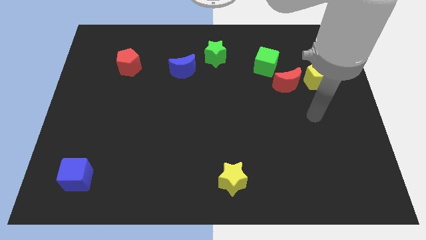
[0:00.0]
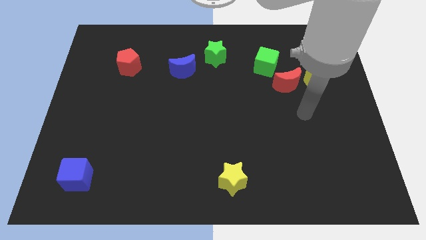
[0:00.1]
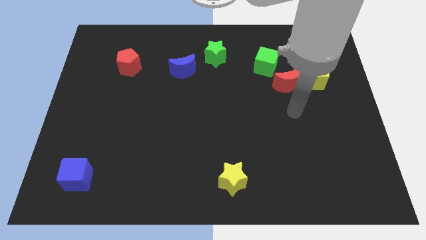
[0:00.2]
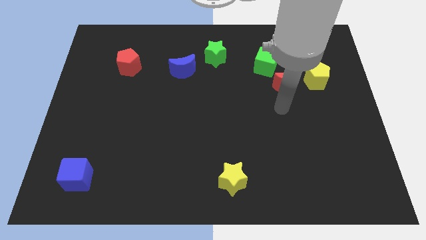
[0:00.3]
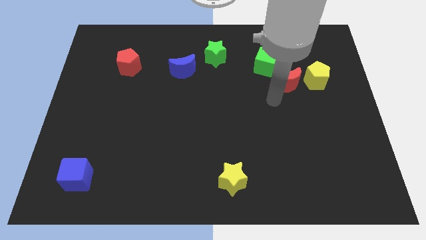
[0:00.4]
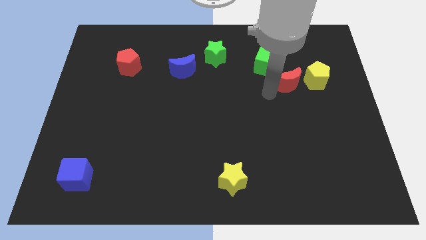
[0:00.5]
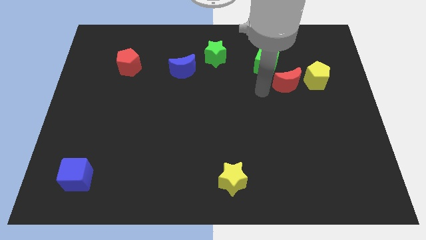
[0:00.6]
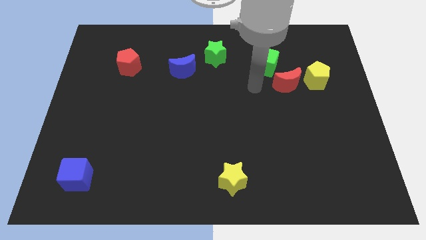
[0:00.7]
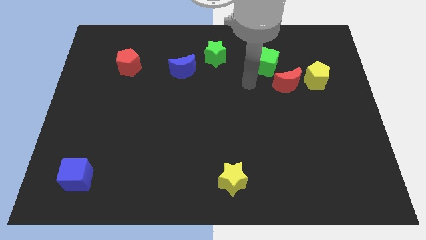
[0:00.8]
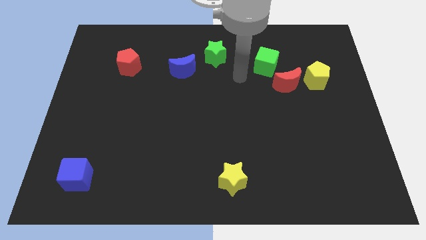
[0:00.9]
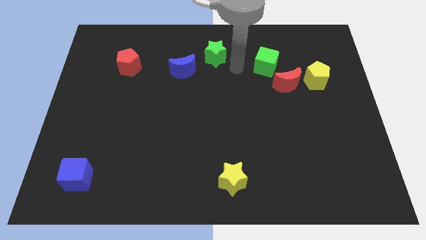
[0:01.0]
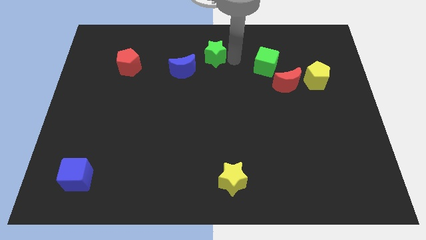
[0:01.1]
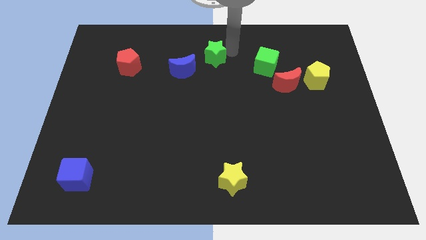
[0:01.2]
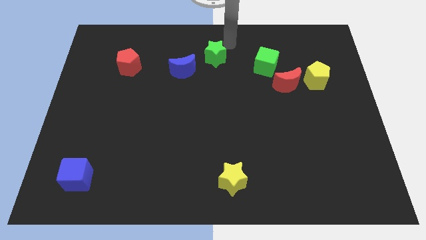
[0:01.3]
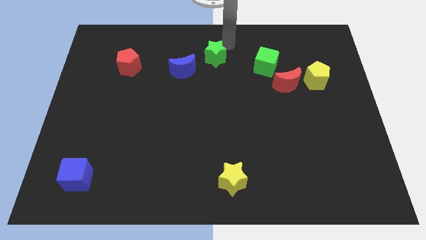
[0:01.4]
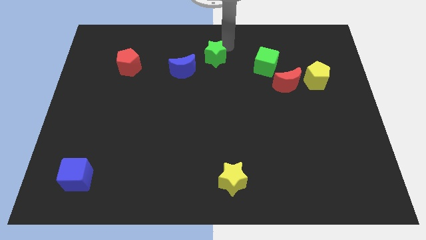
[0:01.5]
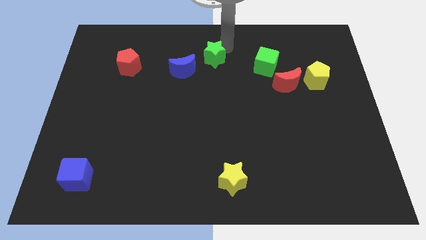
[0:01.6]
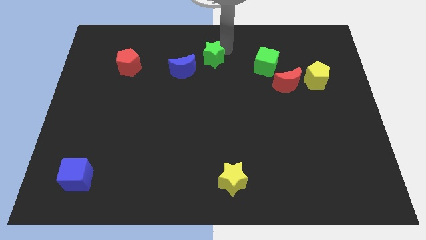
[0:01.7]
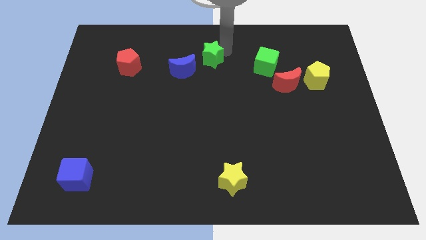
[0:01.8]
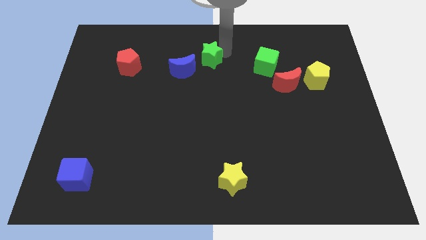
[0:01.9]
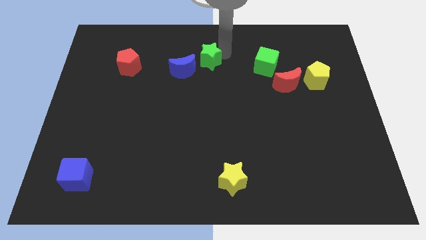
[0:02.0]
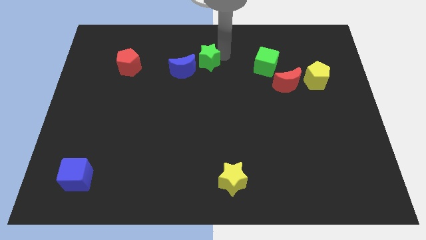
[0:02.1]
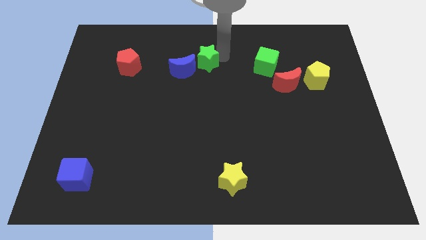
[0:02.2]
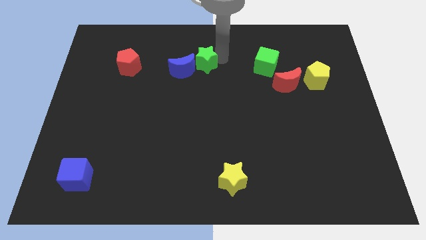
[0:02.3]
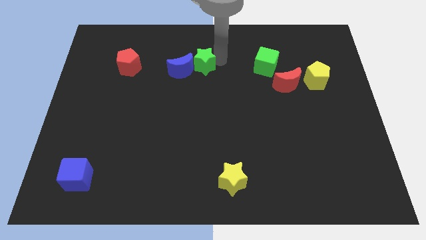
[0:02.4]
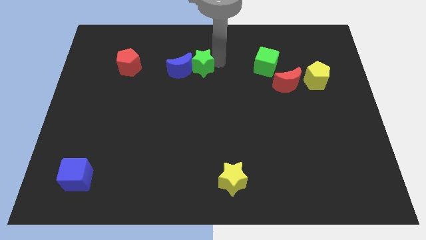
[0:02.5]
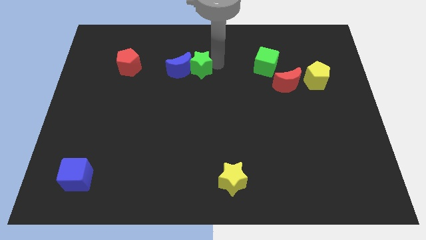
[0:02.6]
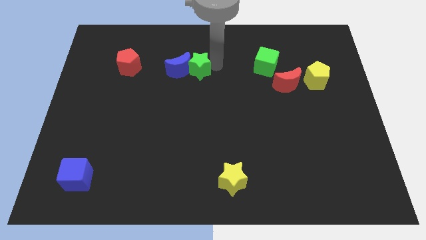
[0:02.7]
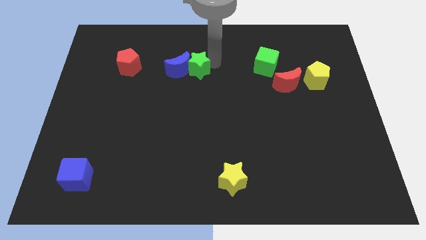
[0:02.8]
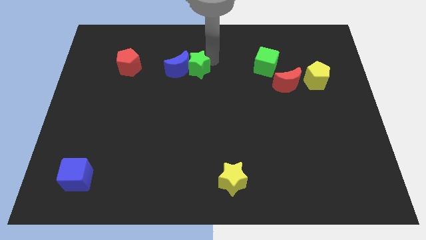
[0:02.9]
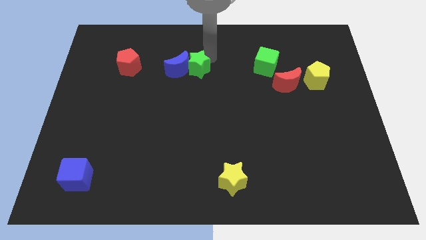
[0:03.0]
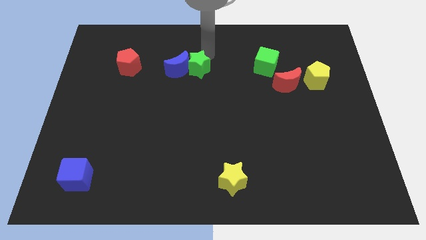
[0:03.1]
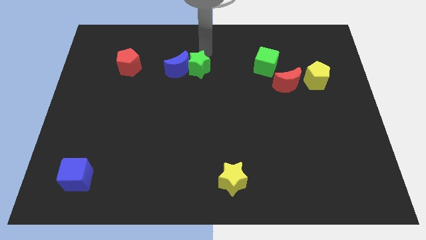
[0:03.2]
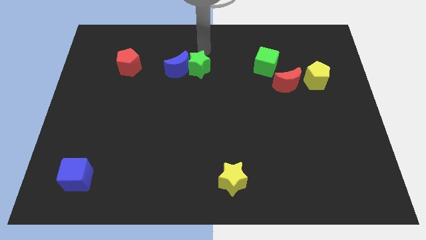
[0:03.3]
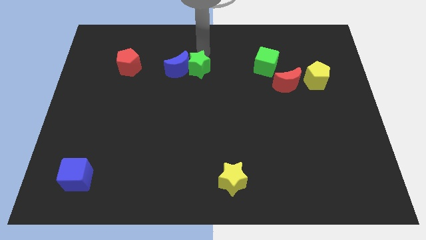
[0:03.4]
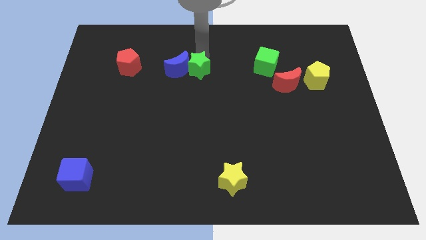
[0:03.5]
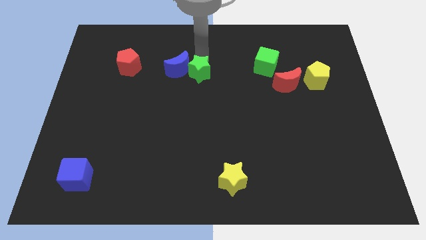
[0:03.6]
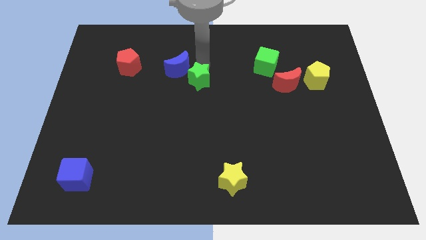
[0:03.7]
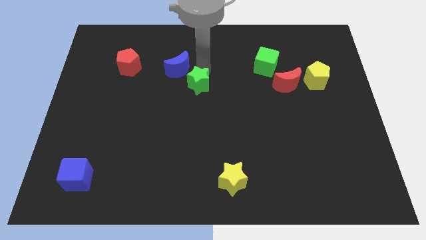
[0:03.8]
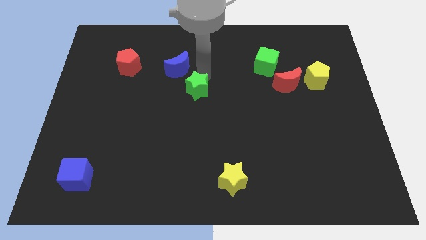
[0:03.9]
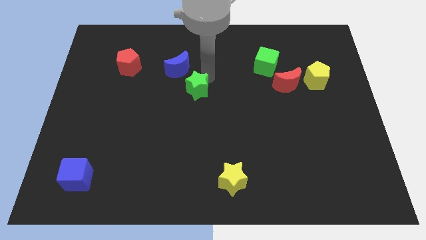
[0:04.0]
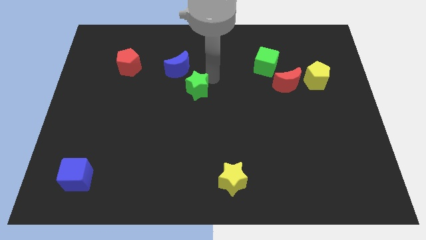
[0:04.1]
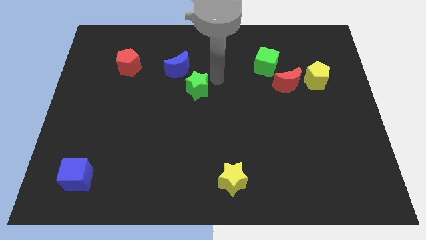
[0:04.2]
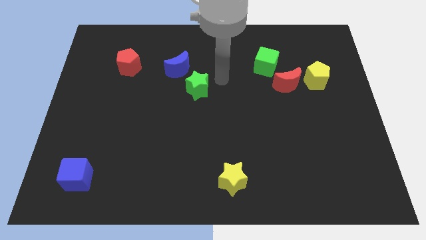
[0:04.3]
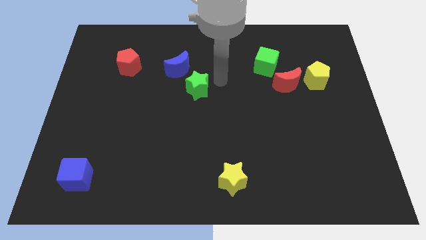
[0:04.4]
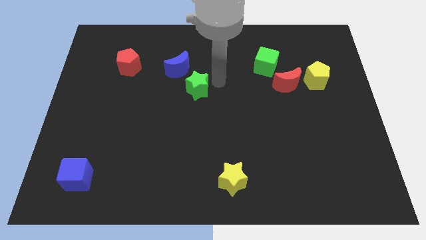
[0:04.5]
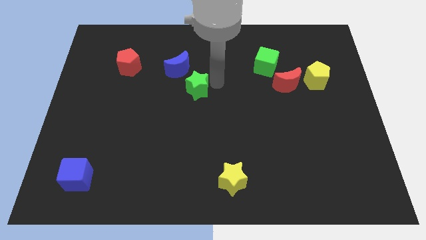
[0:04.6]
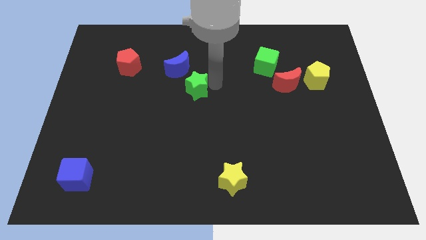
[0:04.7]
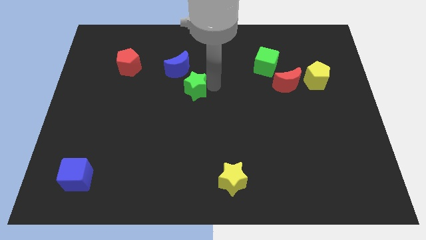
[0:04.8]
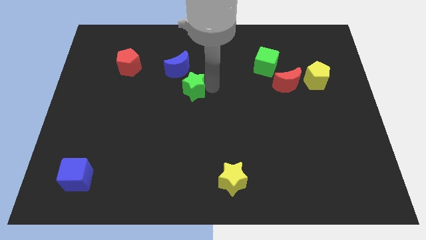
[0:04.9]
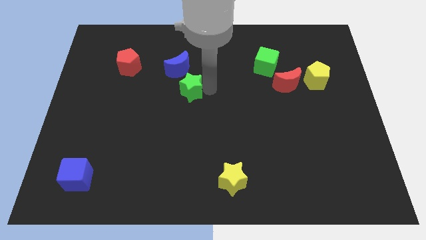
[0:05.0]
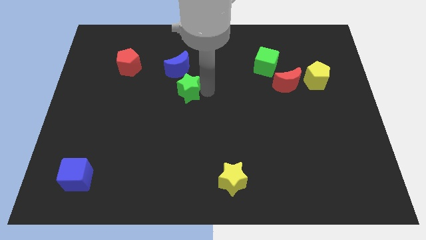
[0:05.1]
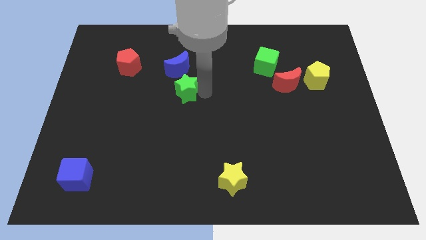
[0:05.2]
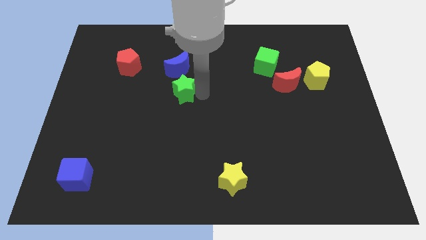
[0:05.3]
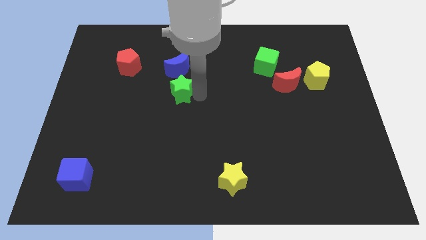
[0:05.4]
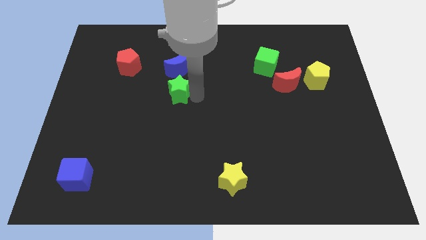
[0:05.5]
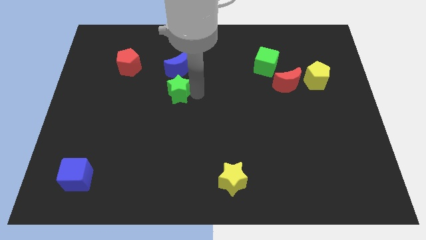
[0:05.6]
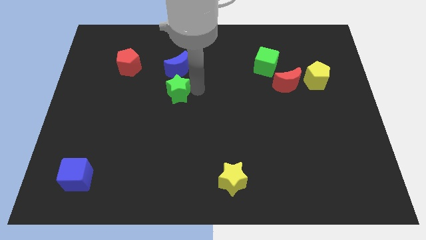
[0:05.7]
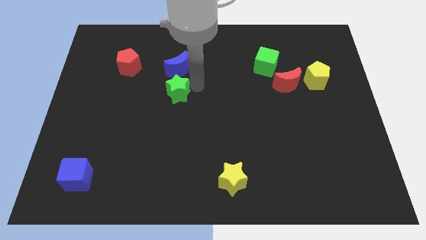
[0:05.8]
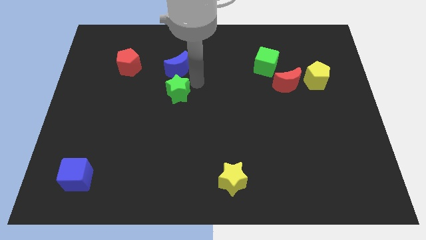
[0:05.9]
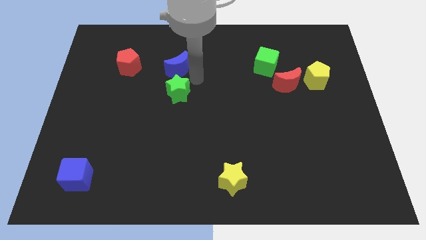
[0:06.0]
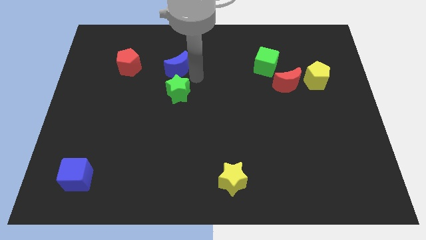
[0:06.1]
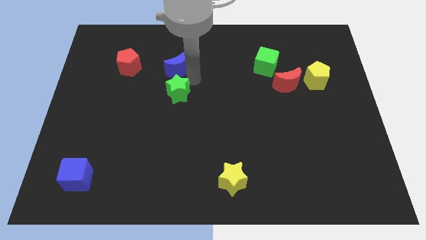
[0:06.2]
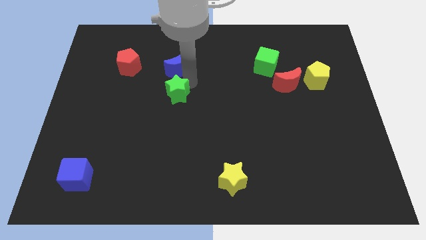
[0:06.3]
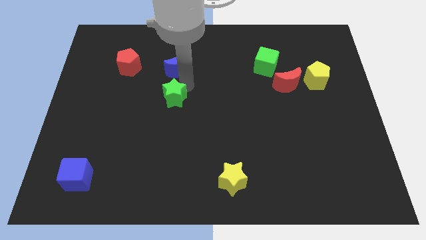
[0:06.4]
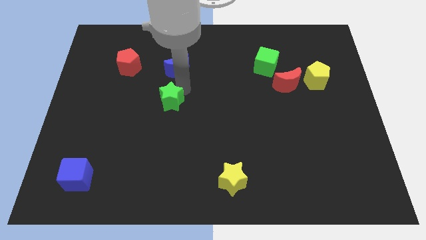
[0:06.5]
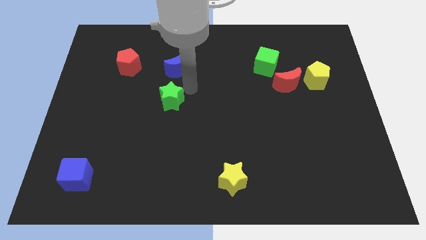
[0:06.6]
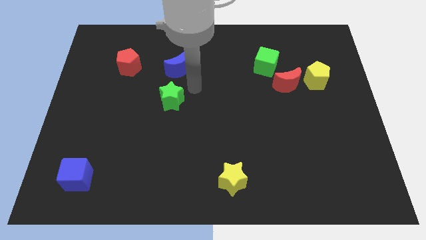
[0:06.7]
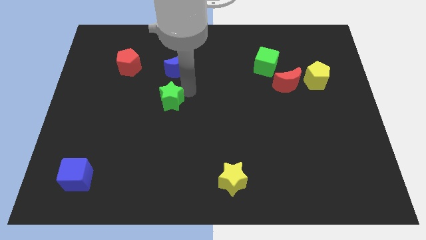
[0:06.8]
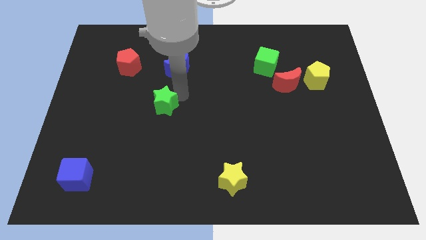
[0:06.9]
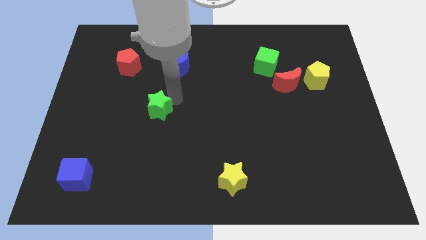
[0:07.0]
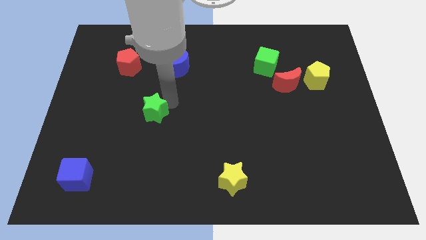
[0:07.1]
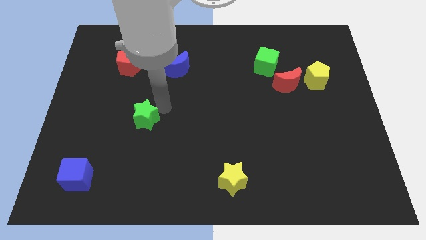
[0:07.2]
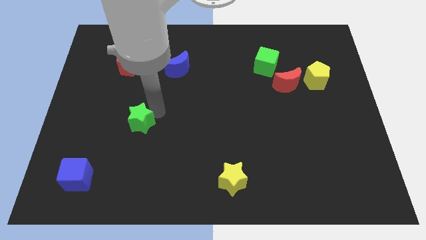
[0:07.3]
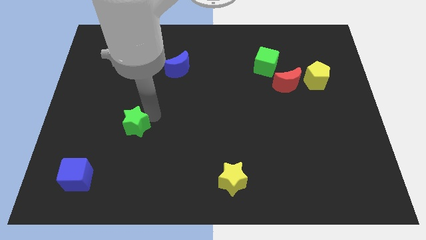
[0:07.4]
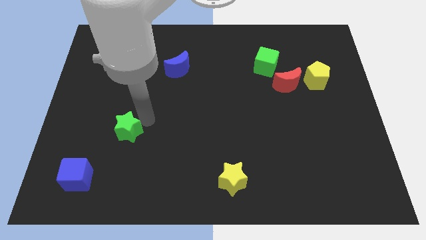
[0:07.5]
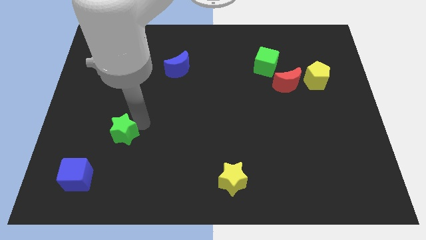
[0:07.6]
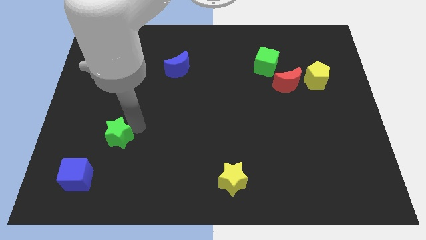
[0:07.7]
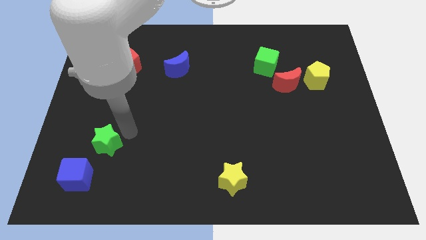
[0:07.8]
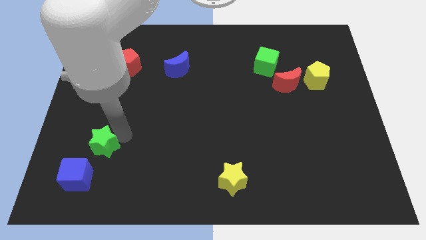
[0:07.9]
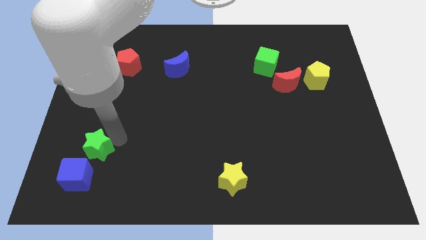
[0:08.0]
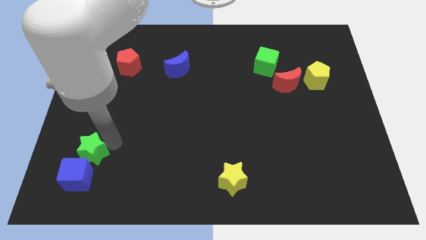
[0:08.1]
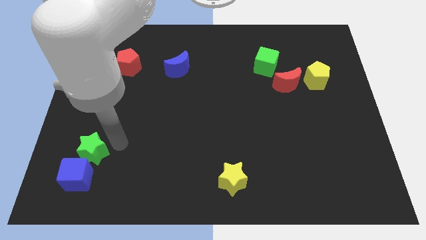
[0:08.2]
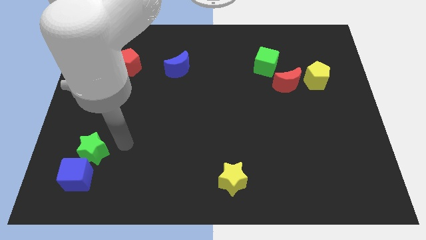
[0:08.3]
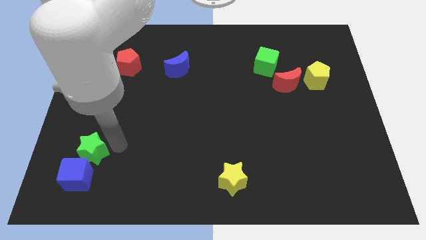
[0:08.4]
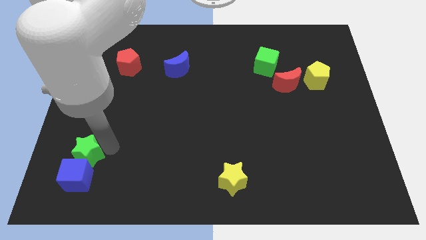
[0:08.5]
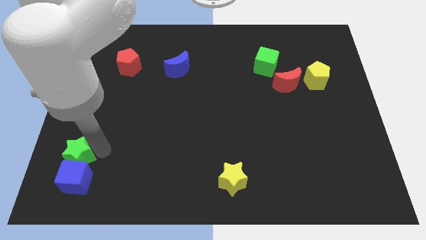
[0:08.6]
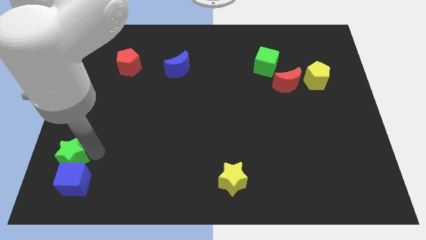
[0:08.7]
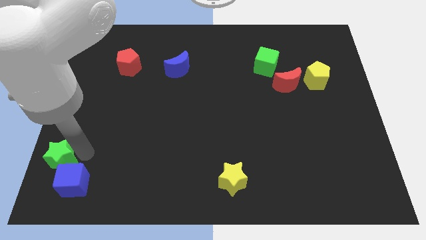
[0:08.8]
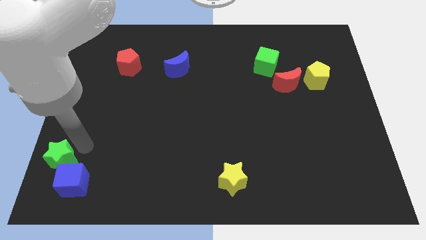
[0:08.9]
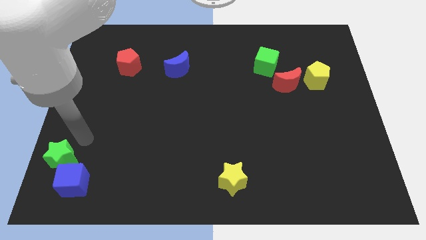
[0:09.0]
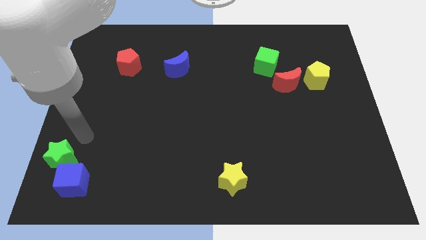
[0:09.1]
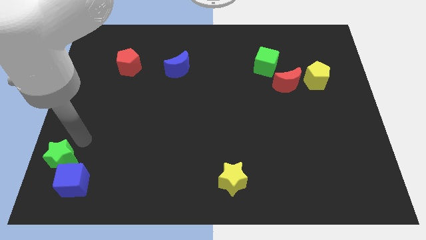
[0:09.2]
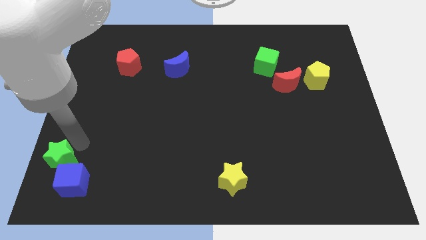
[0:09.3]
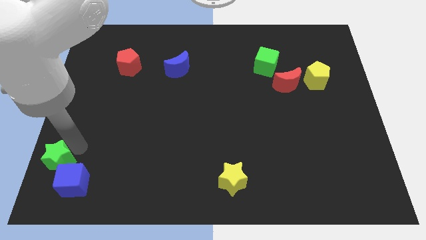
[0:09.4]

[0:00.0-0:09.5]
move the green star to the lower left corner
